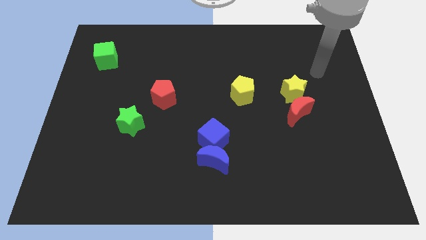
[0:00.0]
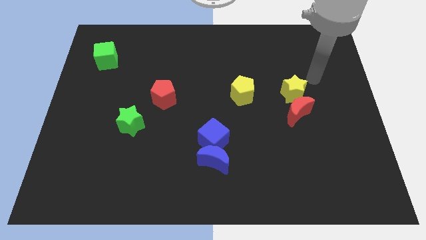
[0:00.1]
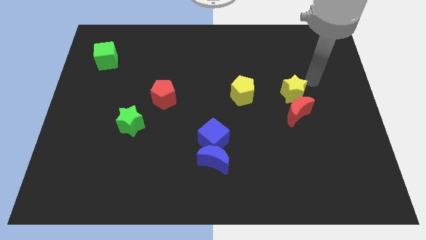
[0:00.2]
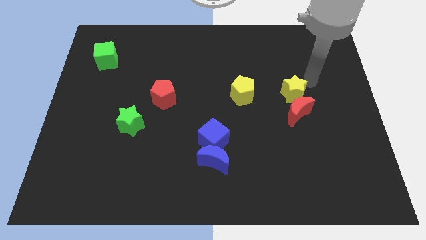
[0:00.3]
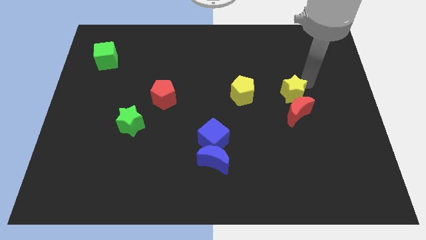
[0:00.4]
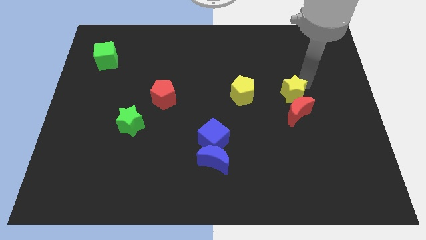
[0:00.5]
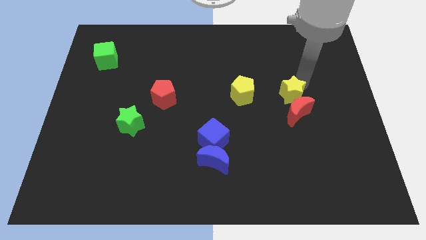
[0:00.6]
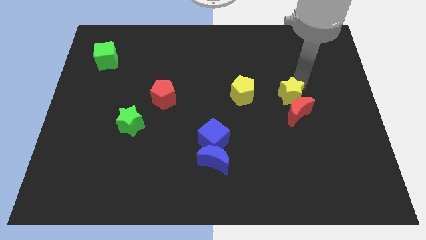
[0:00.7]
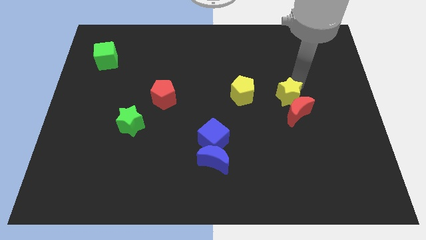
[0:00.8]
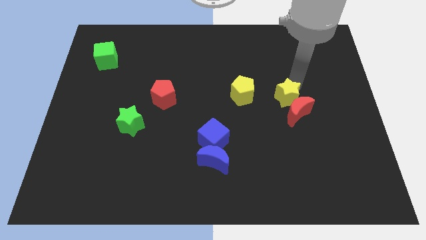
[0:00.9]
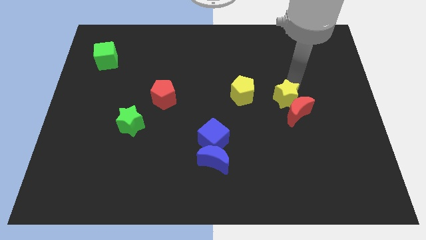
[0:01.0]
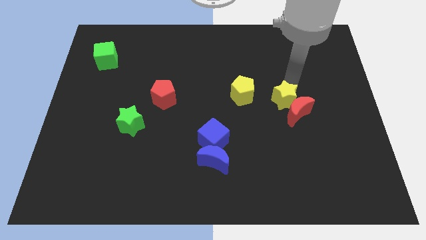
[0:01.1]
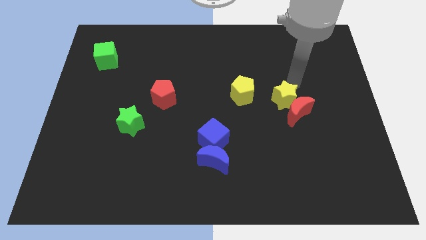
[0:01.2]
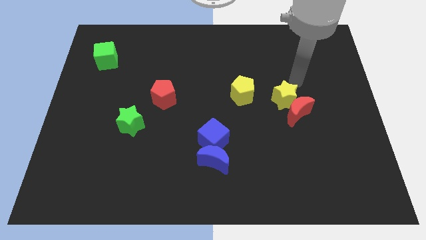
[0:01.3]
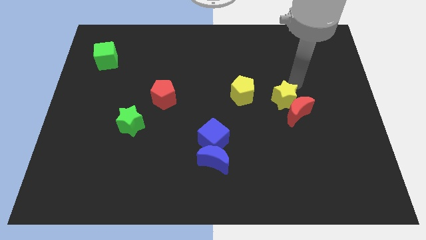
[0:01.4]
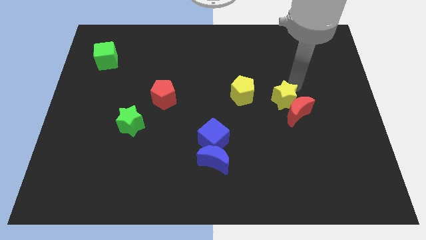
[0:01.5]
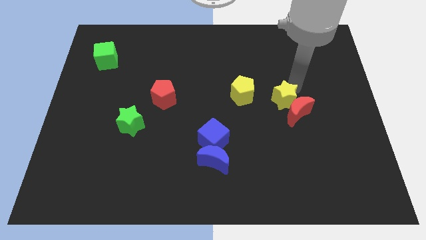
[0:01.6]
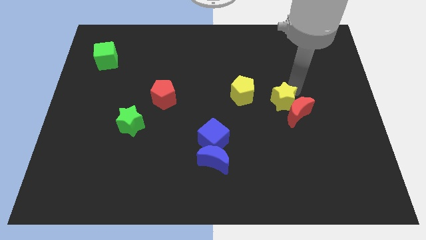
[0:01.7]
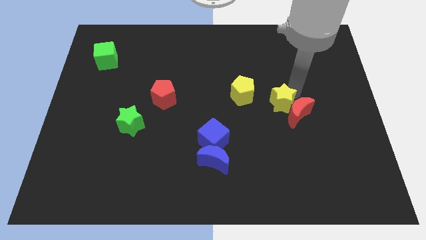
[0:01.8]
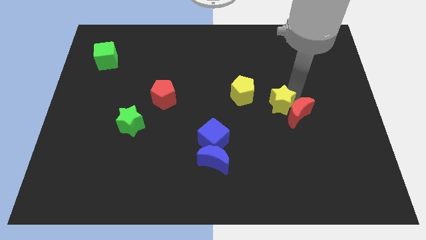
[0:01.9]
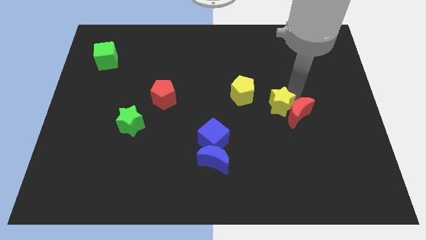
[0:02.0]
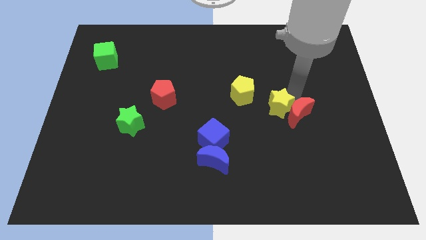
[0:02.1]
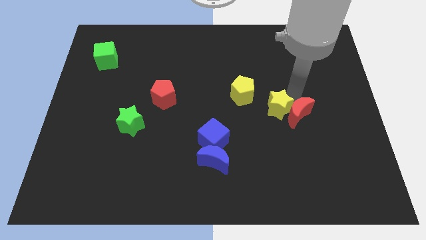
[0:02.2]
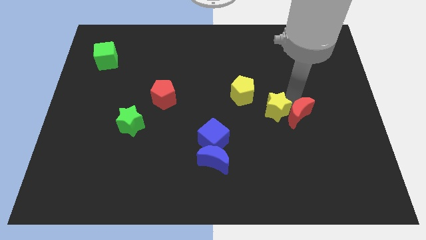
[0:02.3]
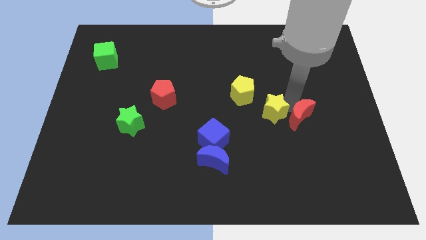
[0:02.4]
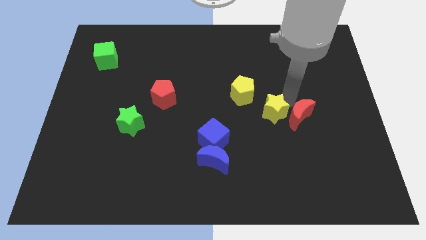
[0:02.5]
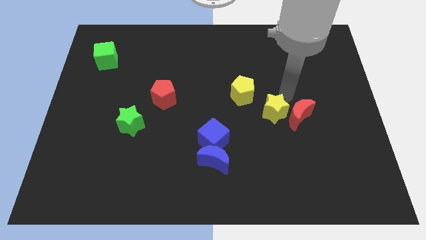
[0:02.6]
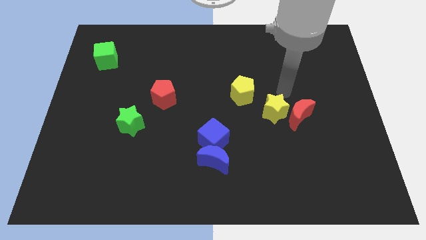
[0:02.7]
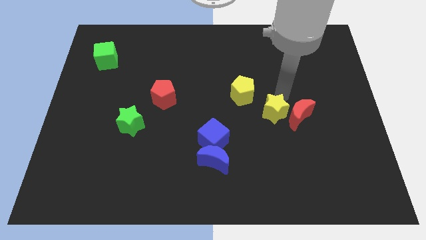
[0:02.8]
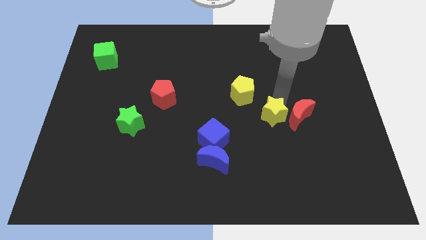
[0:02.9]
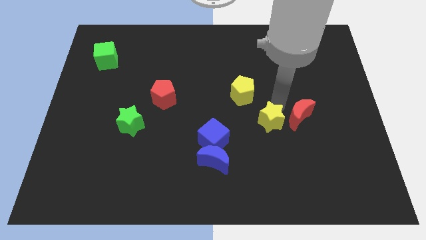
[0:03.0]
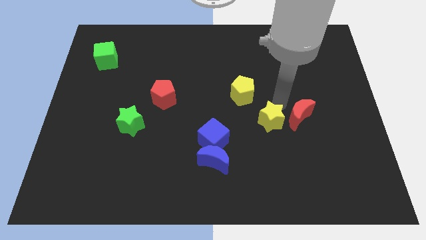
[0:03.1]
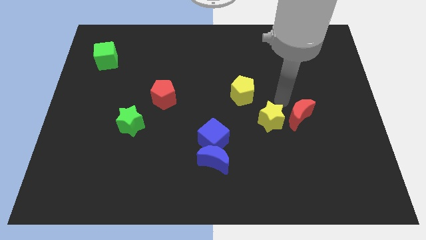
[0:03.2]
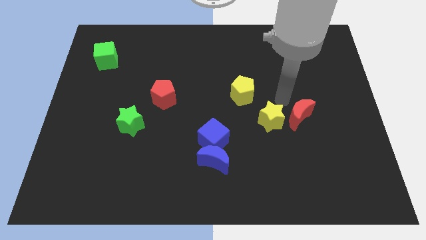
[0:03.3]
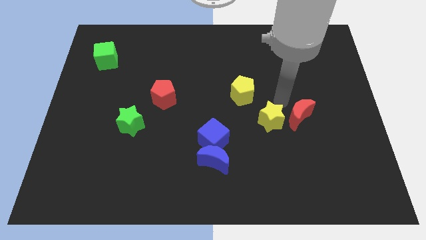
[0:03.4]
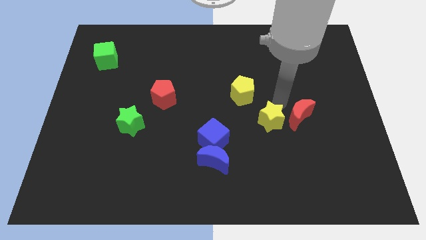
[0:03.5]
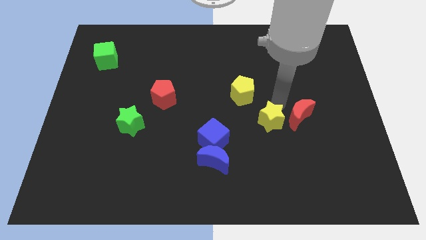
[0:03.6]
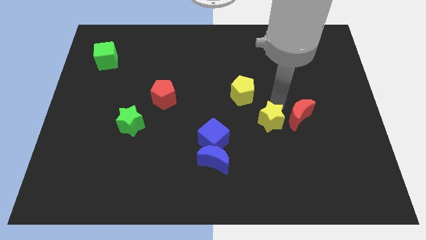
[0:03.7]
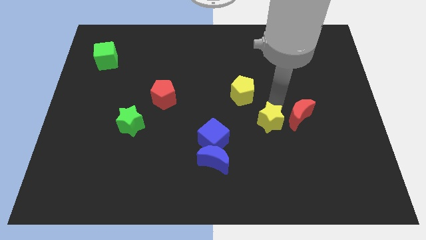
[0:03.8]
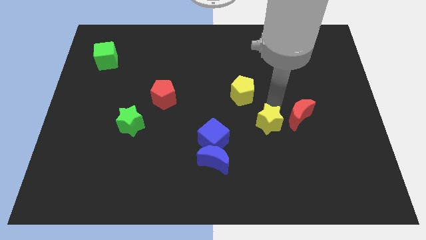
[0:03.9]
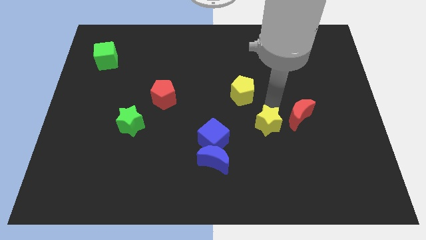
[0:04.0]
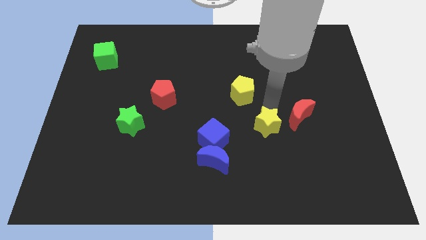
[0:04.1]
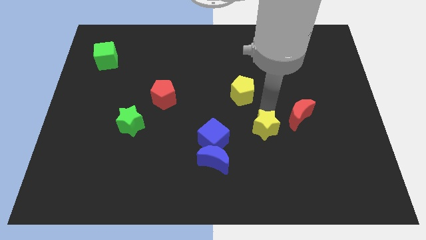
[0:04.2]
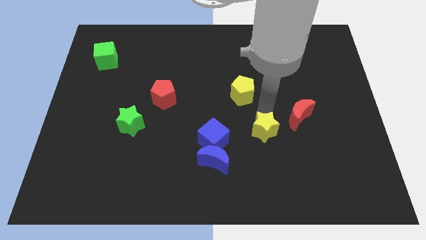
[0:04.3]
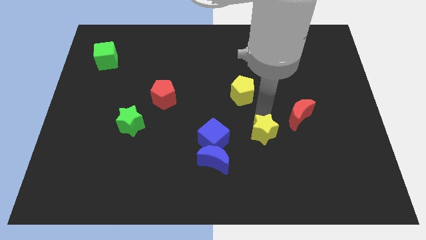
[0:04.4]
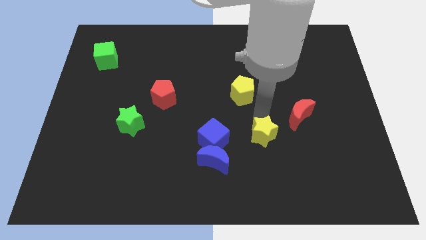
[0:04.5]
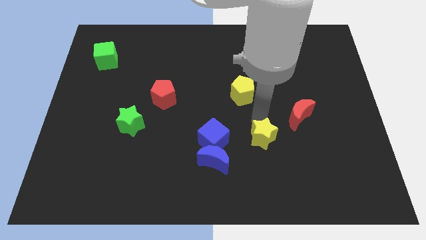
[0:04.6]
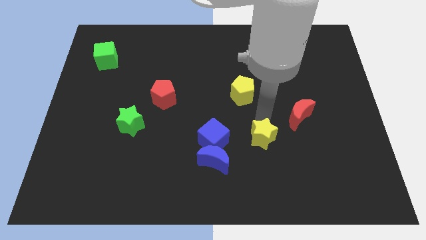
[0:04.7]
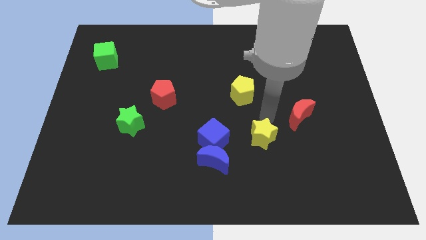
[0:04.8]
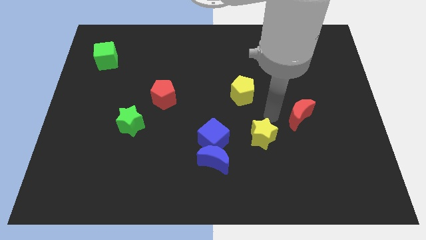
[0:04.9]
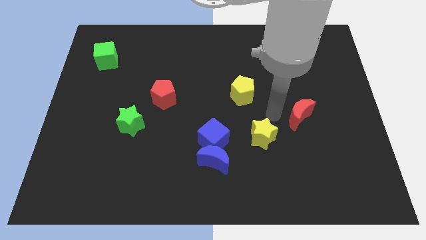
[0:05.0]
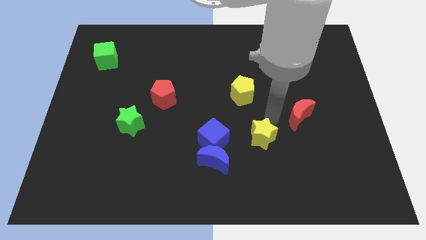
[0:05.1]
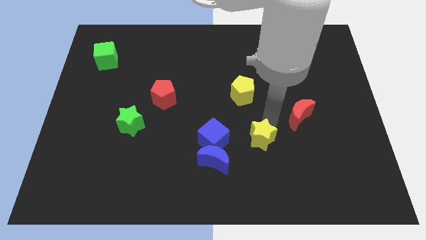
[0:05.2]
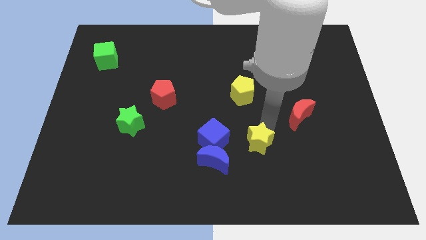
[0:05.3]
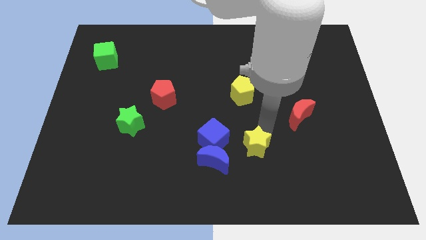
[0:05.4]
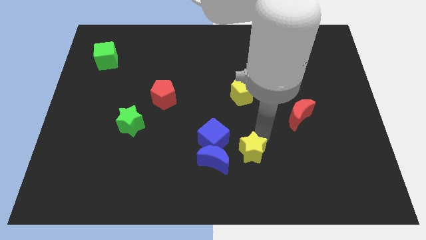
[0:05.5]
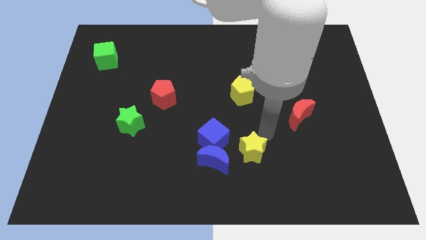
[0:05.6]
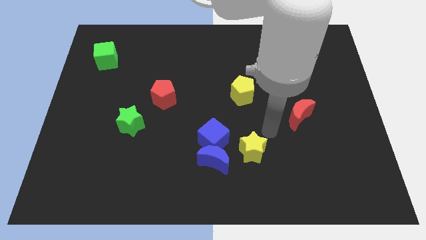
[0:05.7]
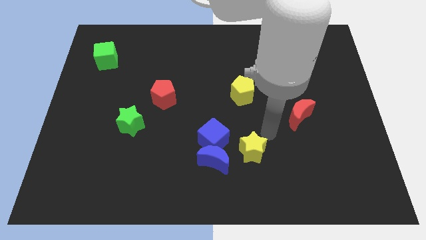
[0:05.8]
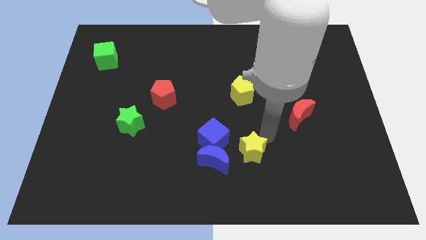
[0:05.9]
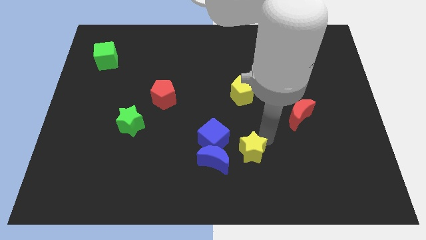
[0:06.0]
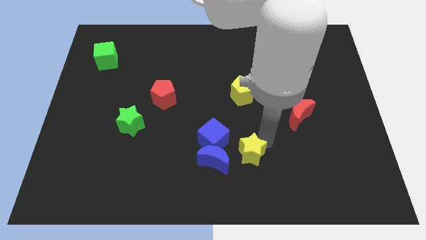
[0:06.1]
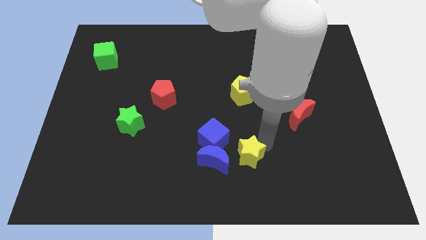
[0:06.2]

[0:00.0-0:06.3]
slide the yellow star diagonally down and left

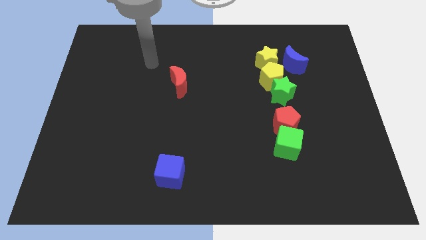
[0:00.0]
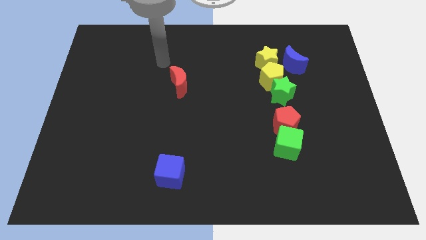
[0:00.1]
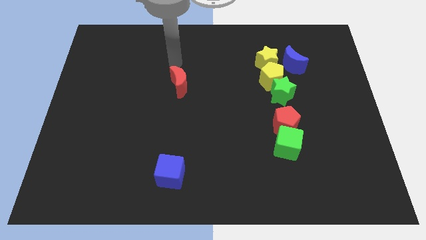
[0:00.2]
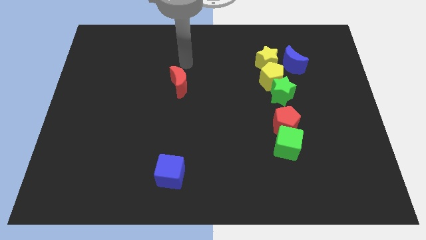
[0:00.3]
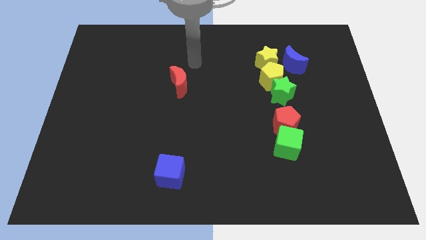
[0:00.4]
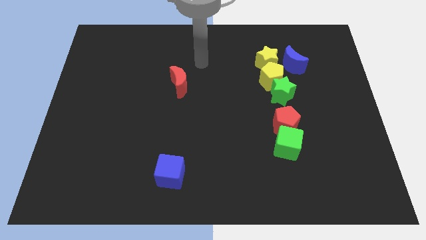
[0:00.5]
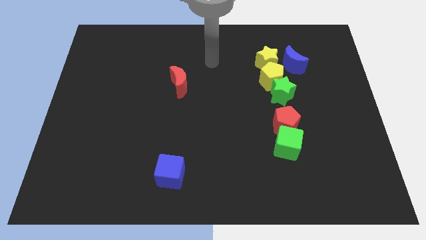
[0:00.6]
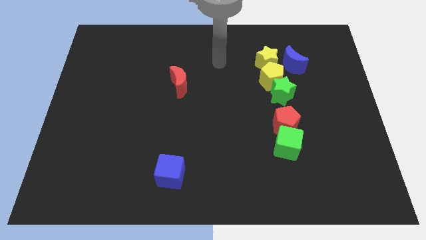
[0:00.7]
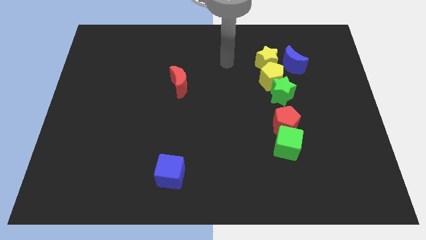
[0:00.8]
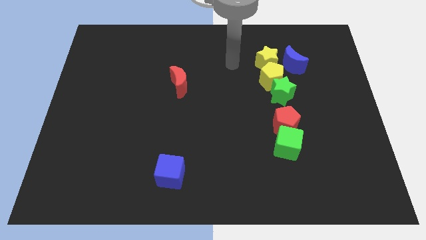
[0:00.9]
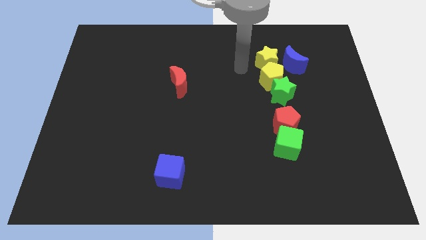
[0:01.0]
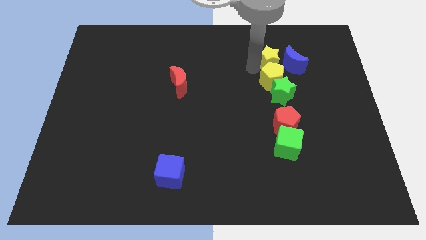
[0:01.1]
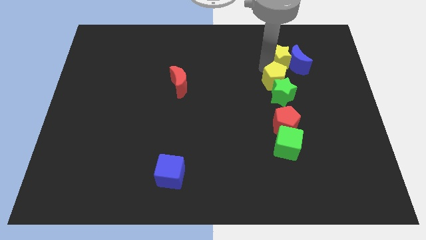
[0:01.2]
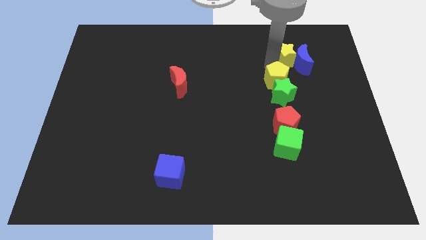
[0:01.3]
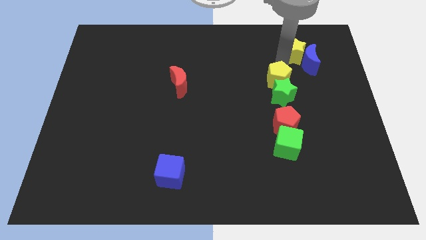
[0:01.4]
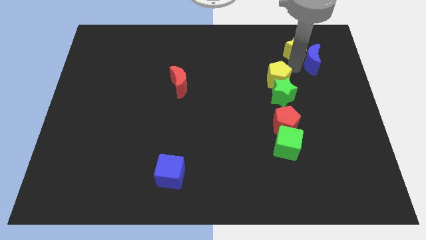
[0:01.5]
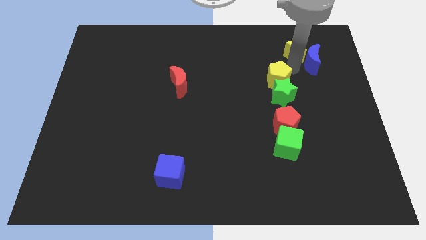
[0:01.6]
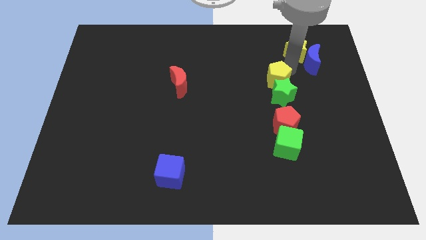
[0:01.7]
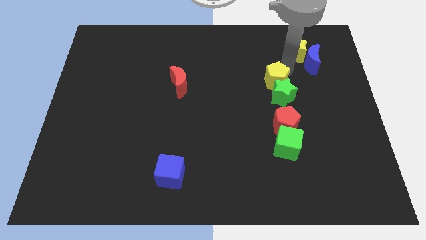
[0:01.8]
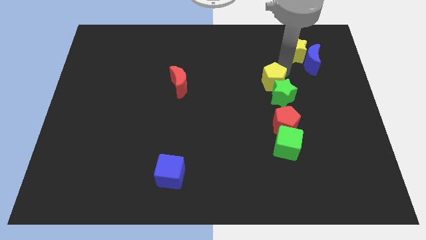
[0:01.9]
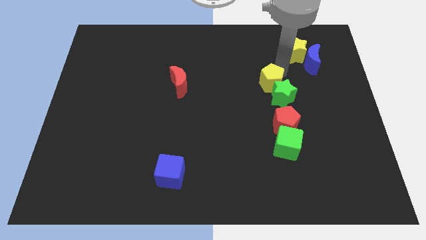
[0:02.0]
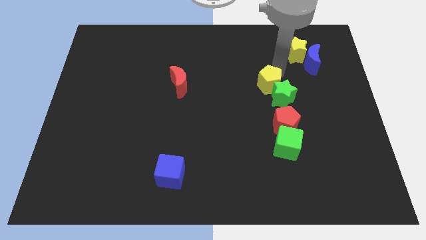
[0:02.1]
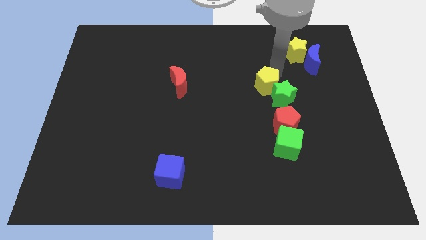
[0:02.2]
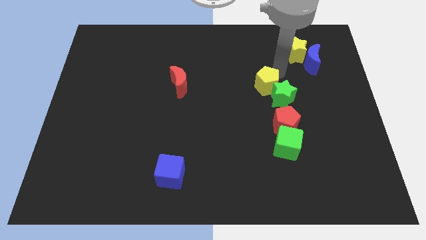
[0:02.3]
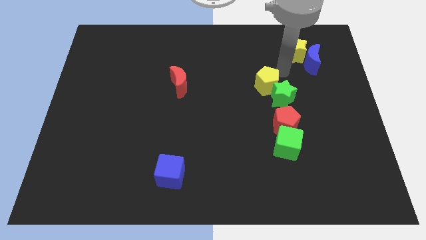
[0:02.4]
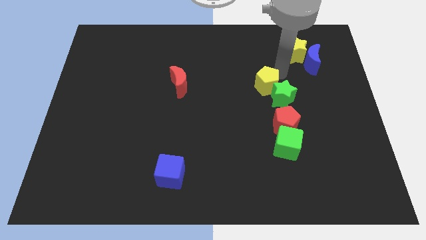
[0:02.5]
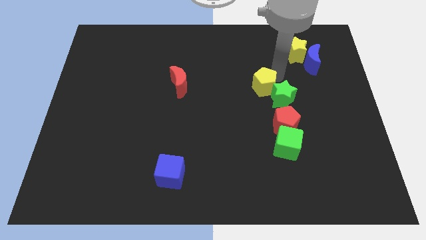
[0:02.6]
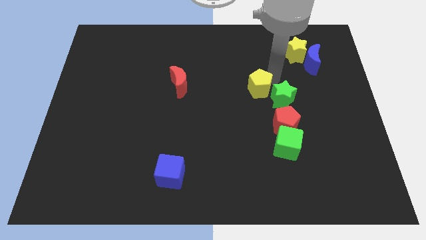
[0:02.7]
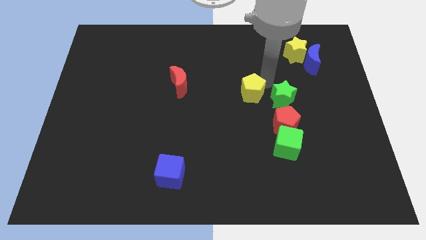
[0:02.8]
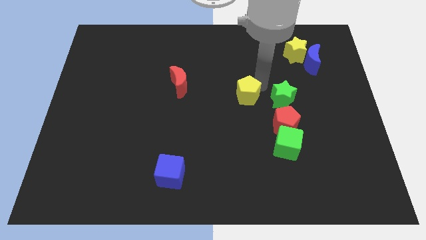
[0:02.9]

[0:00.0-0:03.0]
slightly slide the yellow pentagon downwards and to the left
